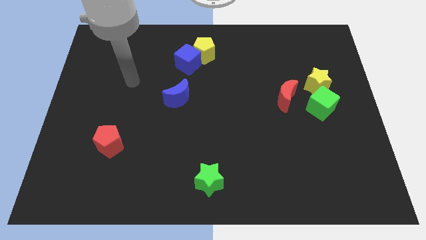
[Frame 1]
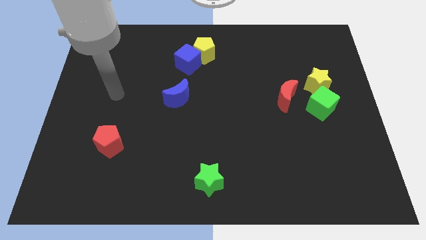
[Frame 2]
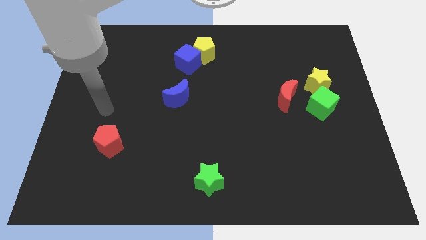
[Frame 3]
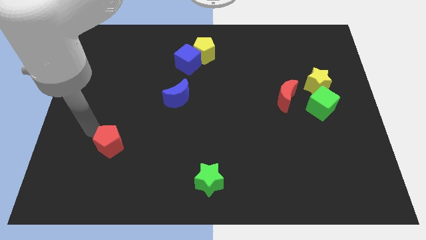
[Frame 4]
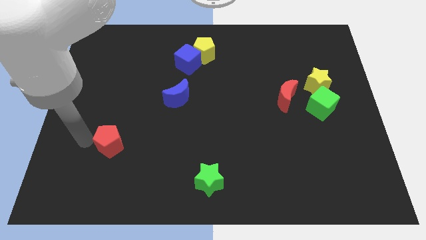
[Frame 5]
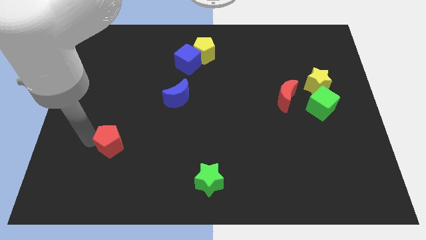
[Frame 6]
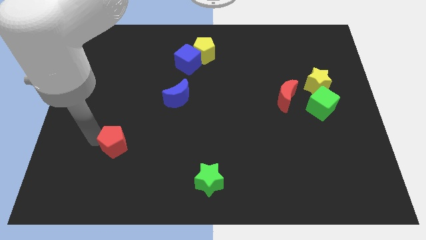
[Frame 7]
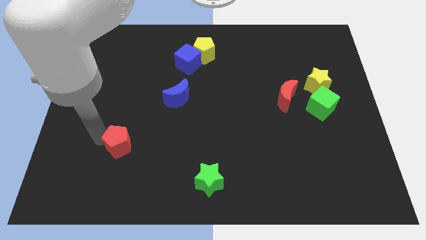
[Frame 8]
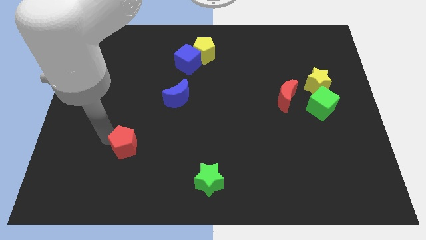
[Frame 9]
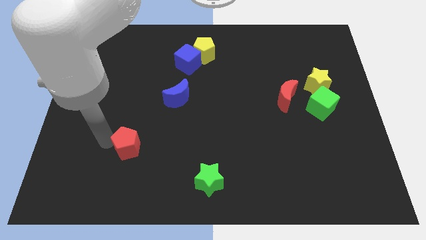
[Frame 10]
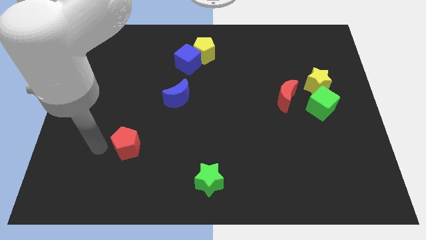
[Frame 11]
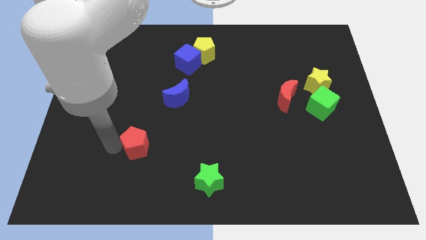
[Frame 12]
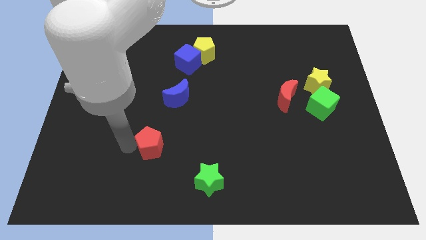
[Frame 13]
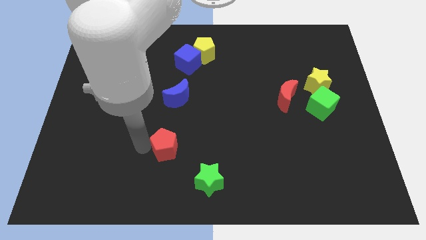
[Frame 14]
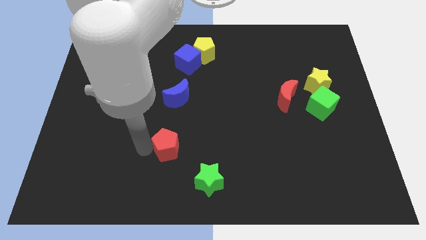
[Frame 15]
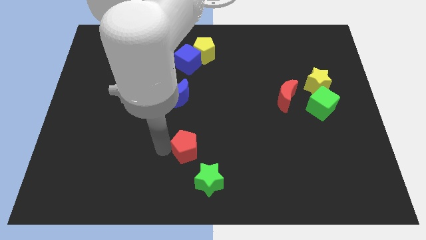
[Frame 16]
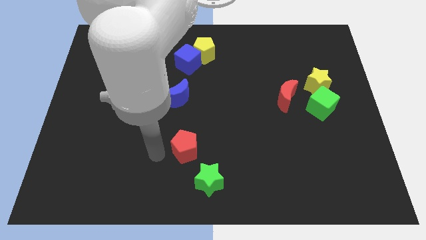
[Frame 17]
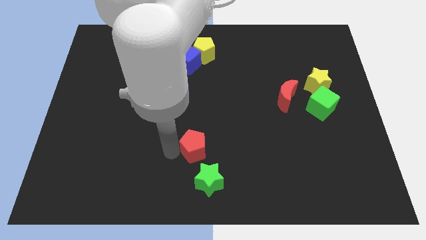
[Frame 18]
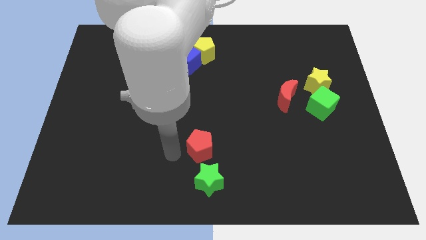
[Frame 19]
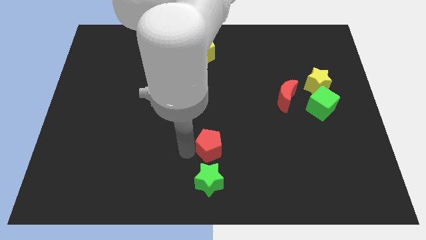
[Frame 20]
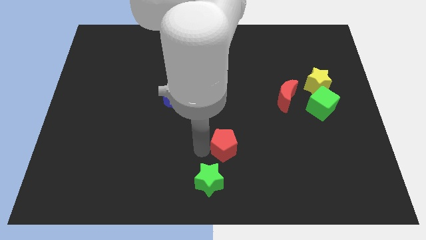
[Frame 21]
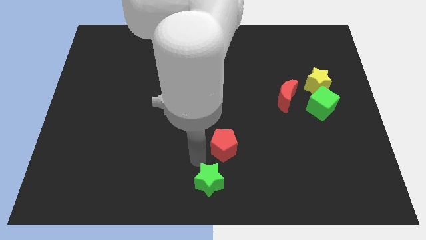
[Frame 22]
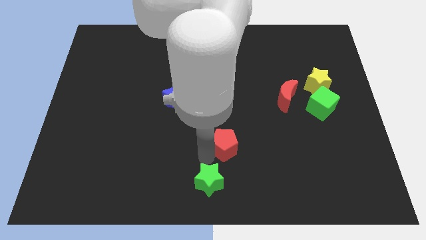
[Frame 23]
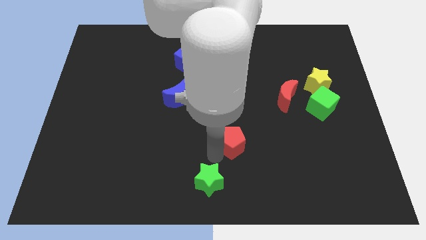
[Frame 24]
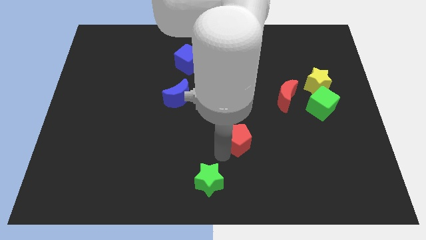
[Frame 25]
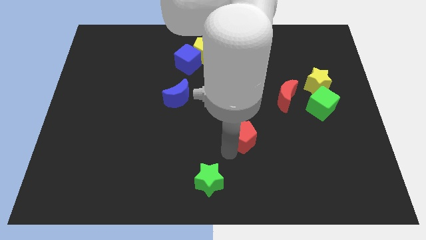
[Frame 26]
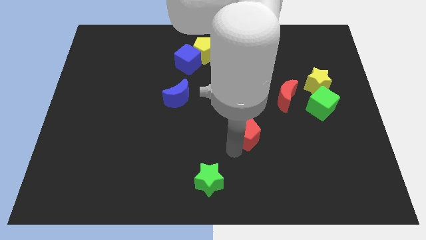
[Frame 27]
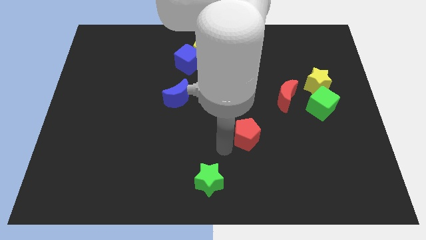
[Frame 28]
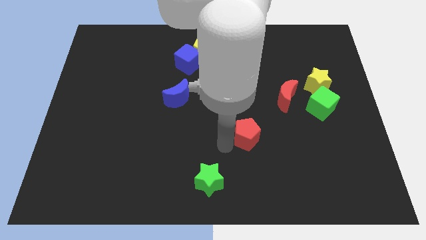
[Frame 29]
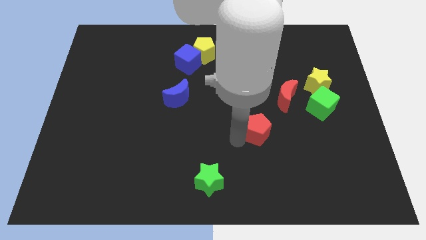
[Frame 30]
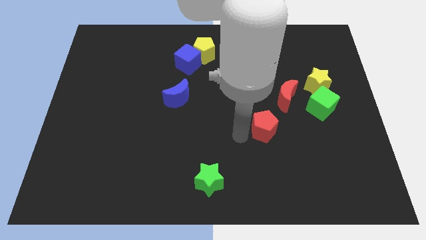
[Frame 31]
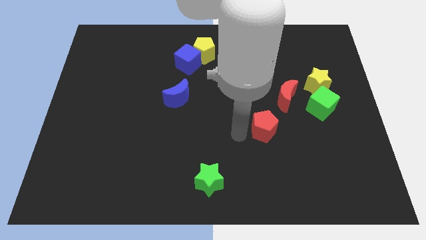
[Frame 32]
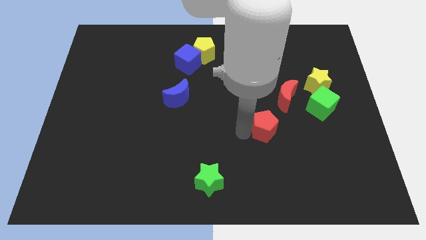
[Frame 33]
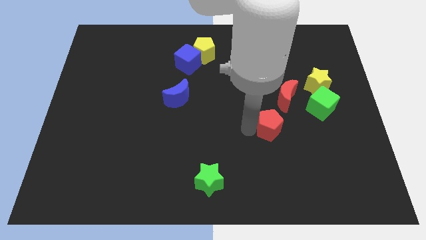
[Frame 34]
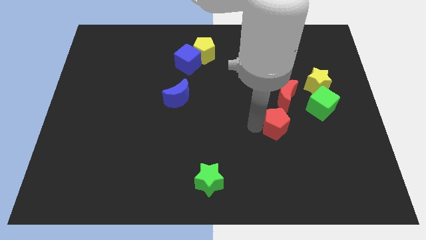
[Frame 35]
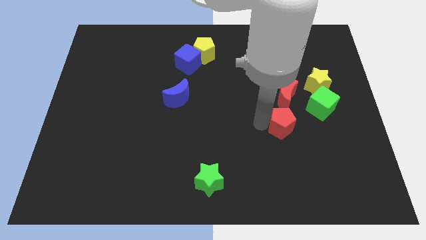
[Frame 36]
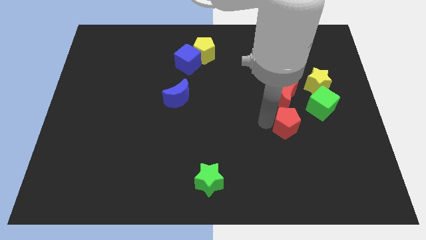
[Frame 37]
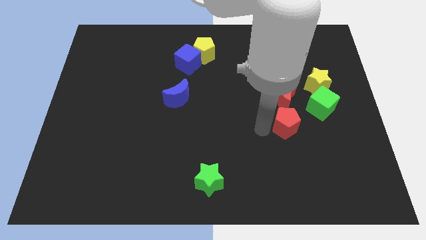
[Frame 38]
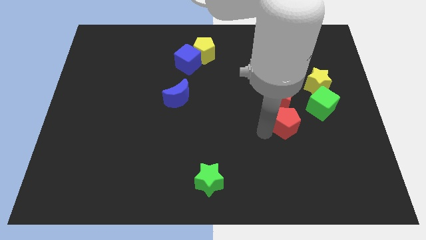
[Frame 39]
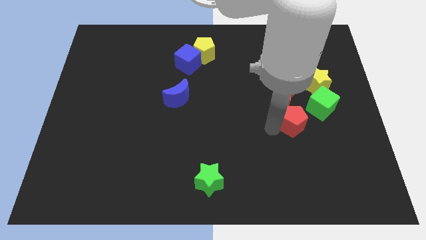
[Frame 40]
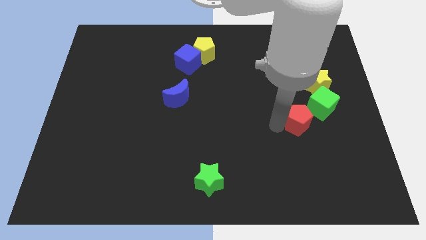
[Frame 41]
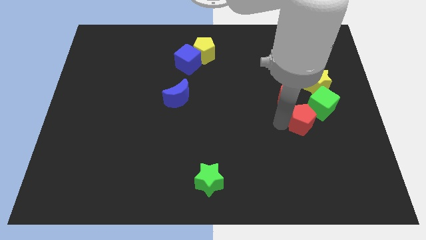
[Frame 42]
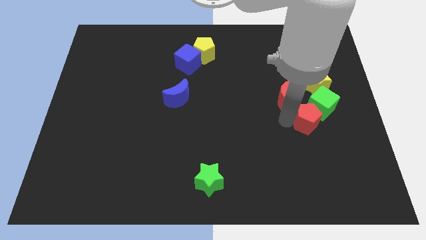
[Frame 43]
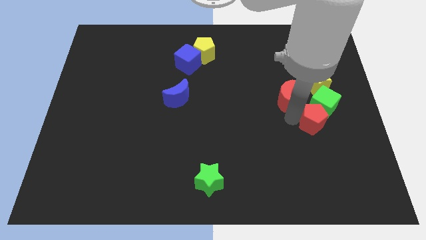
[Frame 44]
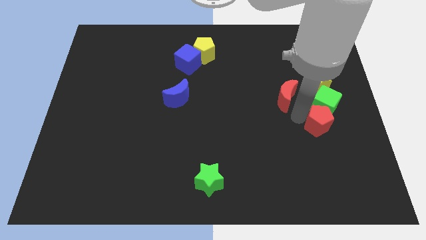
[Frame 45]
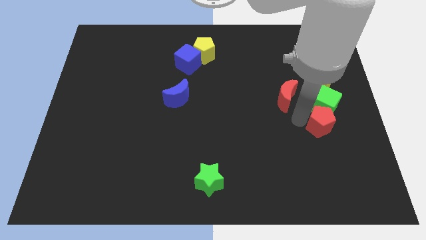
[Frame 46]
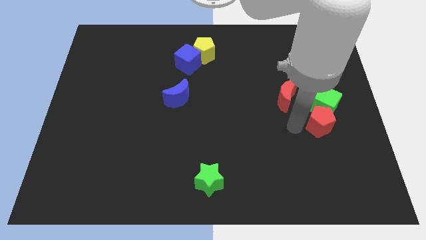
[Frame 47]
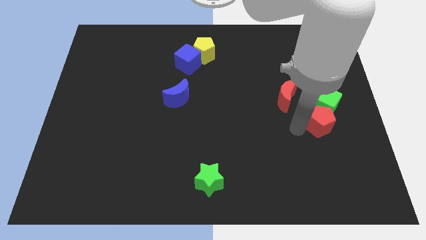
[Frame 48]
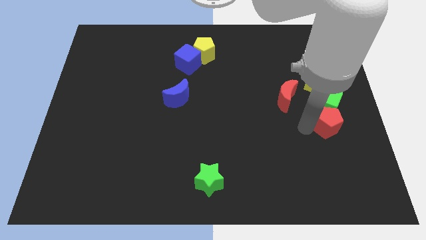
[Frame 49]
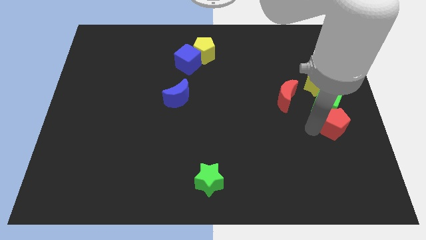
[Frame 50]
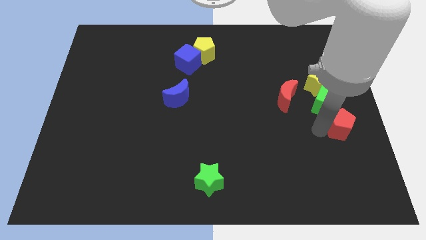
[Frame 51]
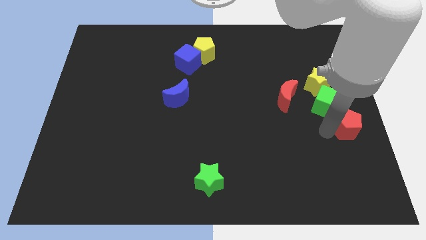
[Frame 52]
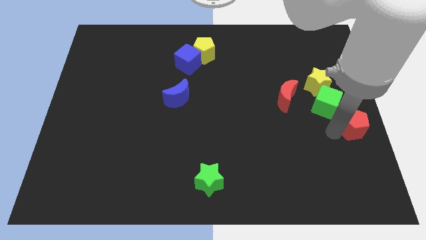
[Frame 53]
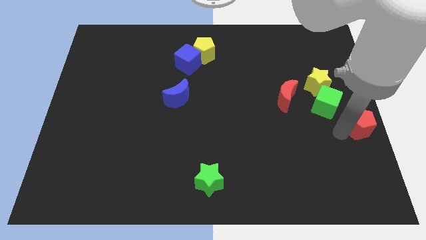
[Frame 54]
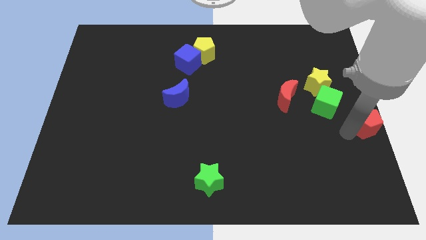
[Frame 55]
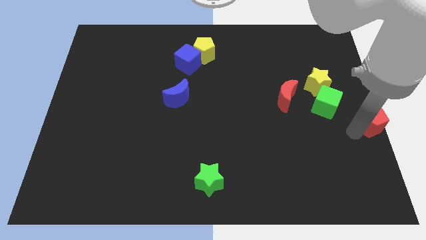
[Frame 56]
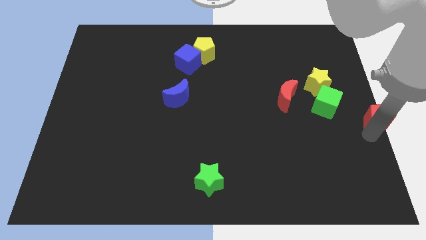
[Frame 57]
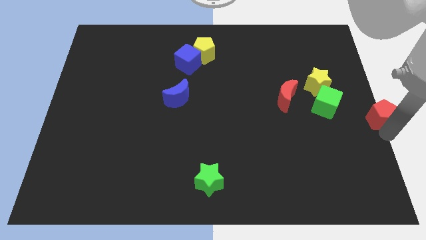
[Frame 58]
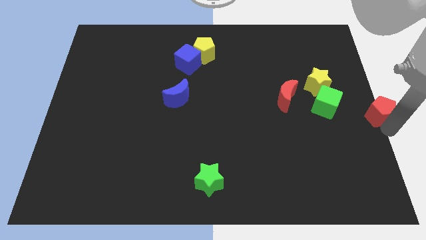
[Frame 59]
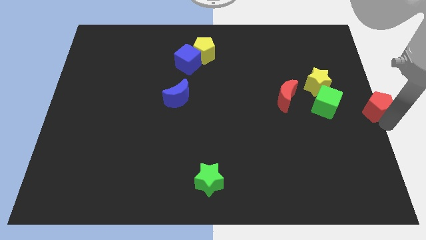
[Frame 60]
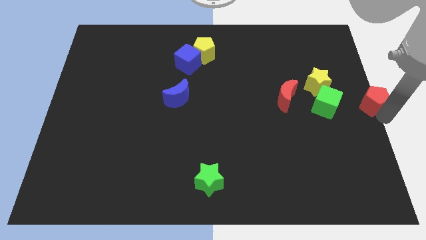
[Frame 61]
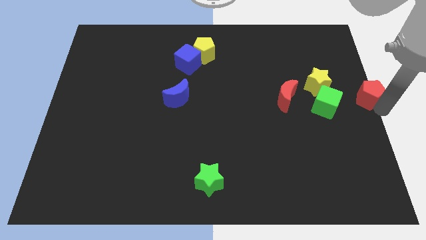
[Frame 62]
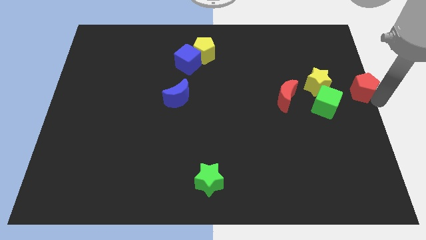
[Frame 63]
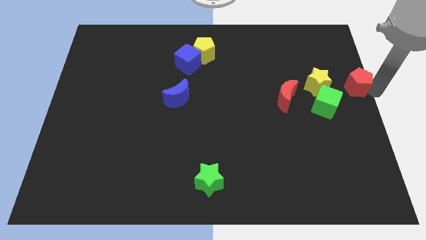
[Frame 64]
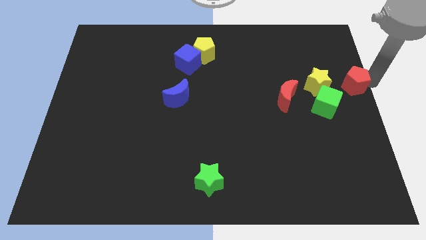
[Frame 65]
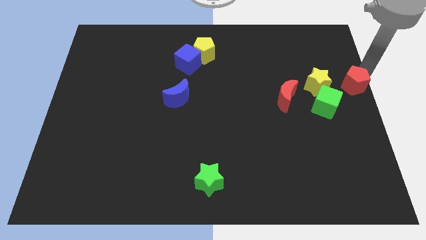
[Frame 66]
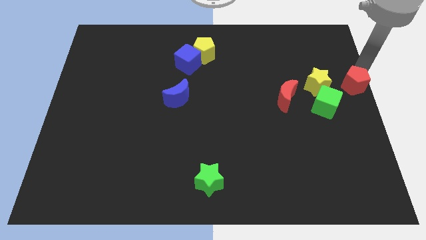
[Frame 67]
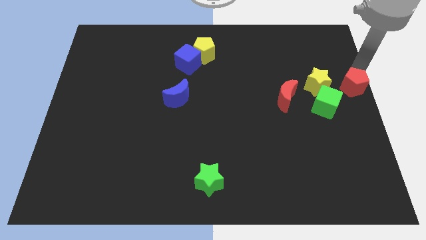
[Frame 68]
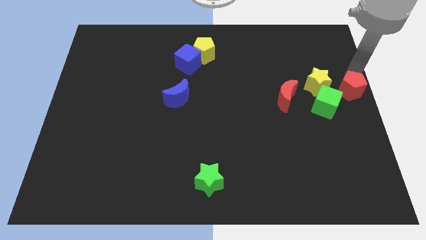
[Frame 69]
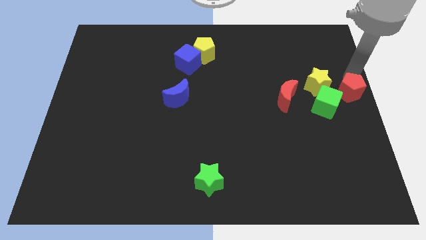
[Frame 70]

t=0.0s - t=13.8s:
move the red pentagon right of the red moon
